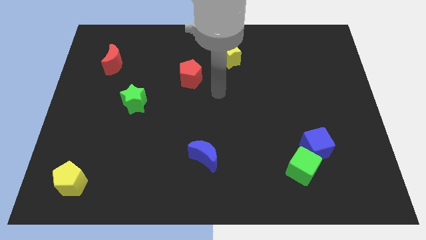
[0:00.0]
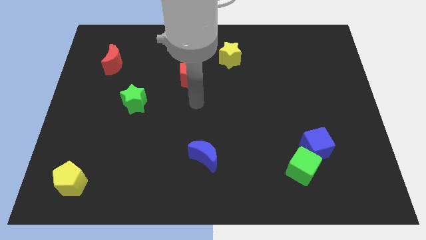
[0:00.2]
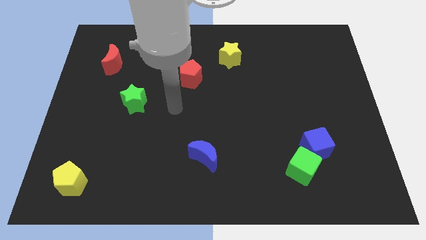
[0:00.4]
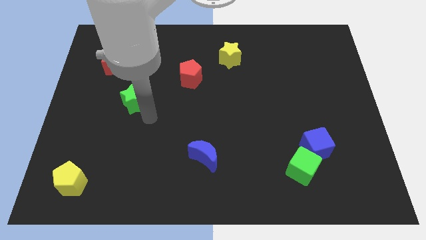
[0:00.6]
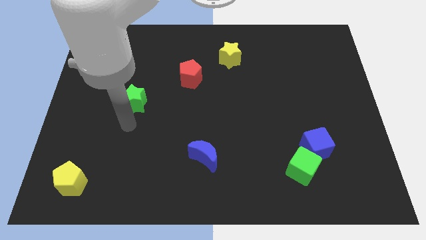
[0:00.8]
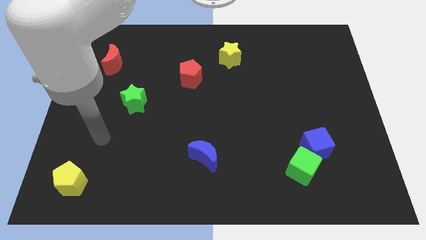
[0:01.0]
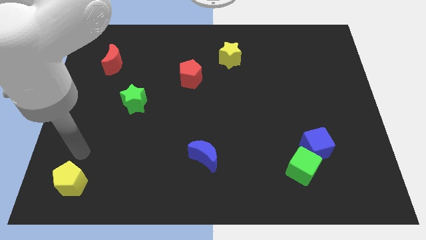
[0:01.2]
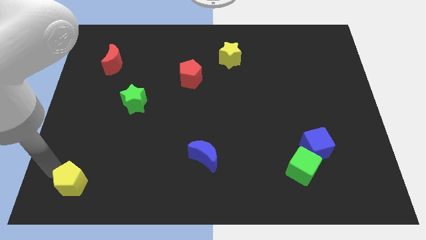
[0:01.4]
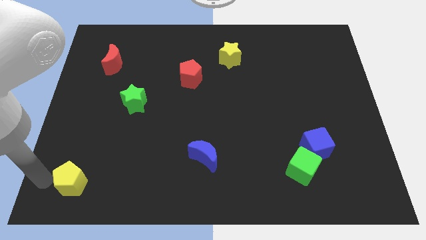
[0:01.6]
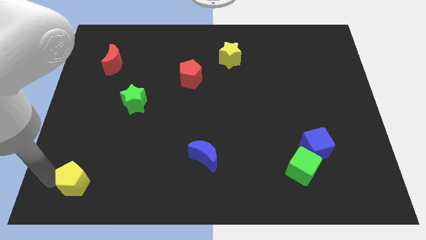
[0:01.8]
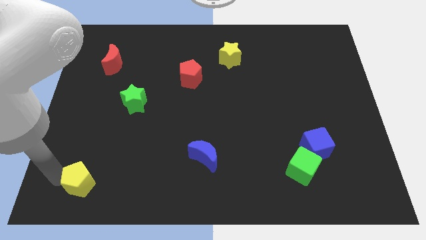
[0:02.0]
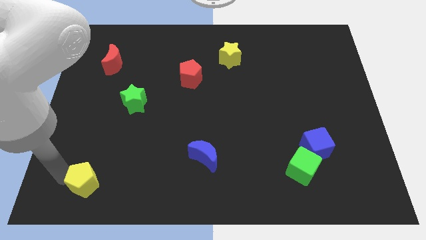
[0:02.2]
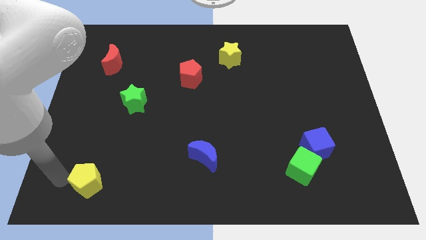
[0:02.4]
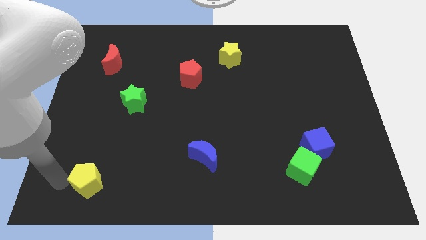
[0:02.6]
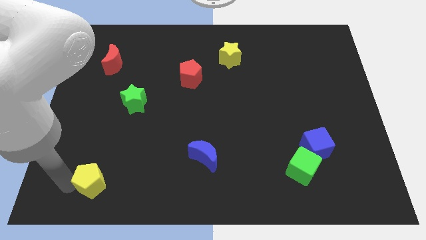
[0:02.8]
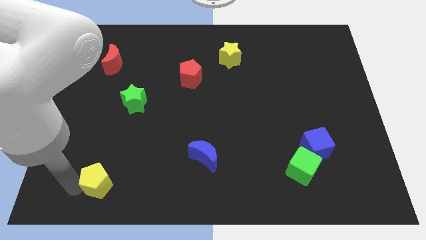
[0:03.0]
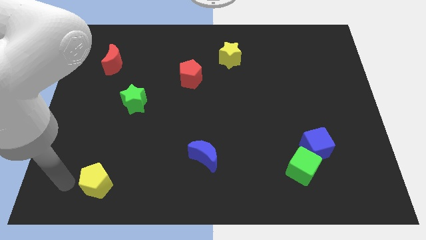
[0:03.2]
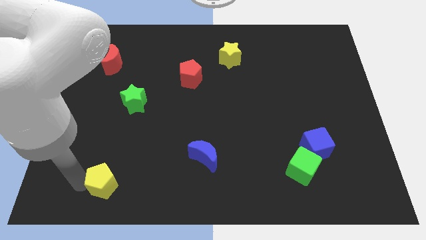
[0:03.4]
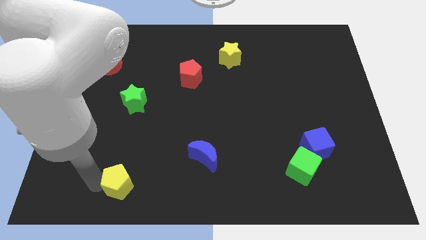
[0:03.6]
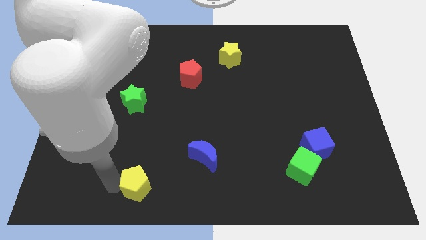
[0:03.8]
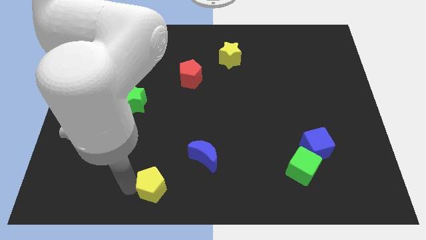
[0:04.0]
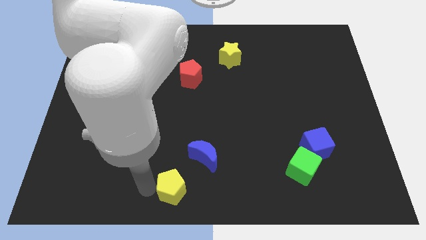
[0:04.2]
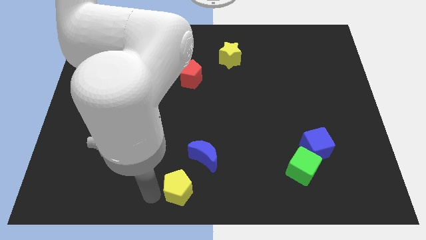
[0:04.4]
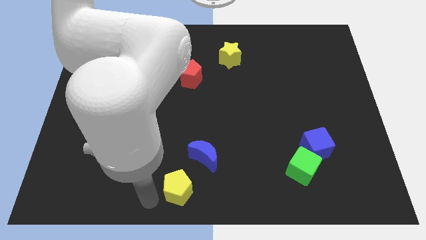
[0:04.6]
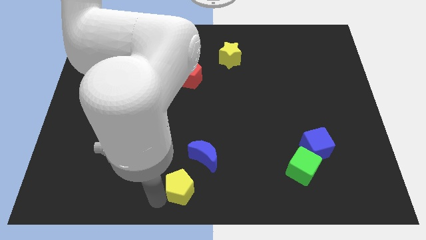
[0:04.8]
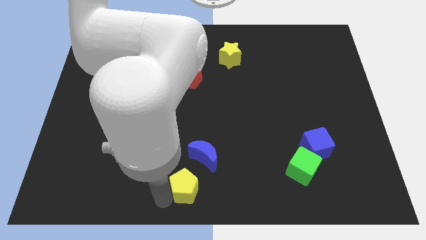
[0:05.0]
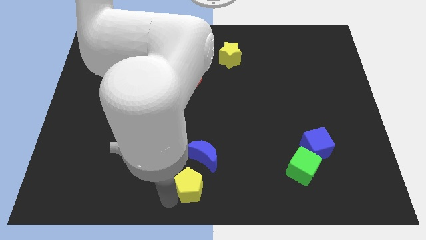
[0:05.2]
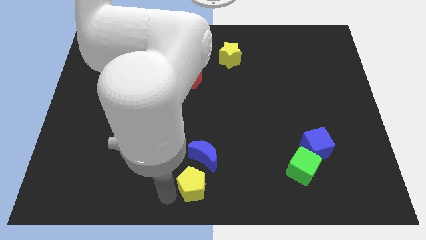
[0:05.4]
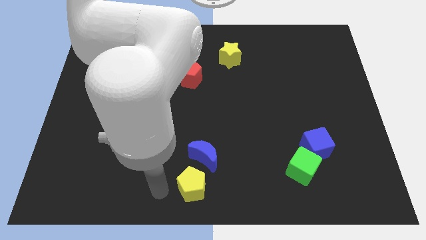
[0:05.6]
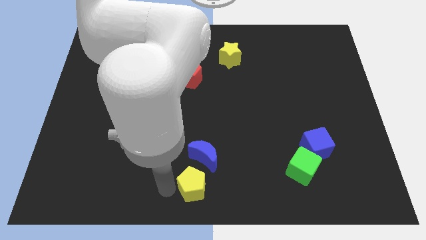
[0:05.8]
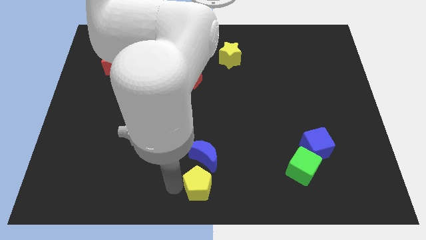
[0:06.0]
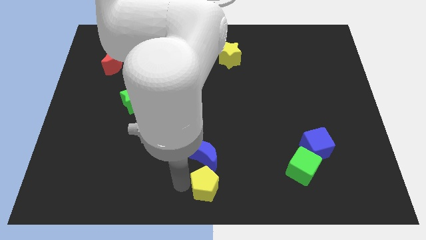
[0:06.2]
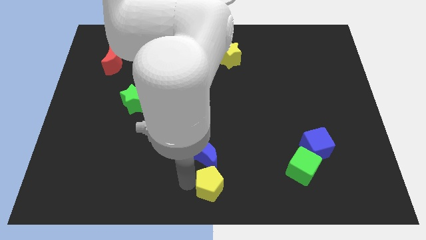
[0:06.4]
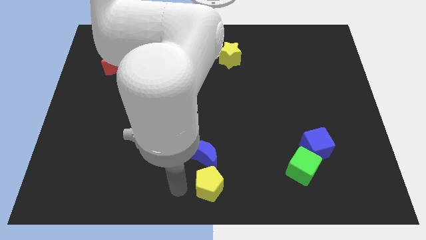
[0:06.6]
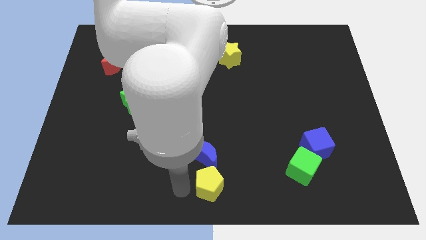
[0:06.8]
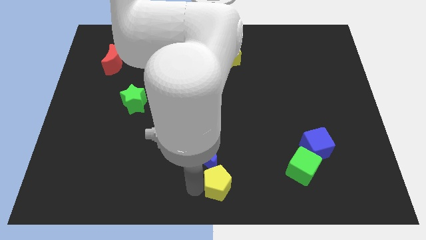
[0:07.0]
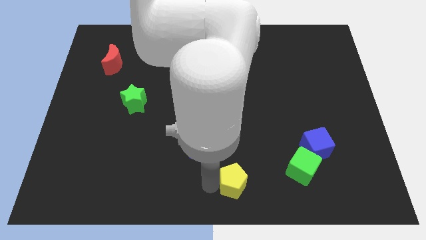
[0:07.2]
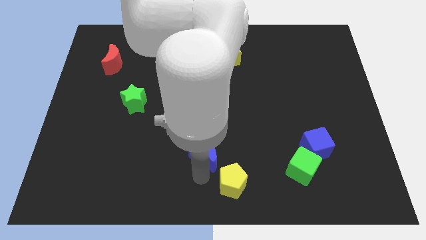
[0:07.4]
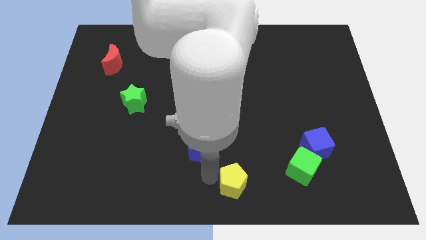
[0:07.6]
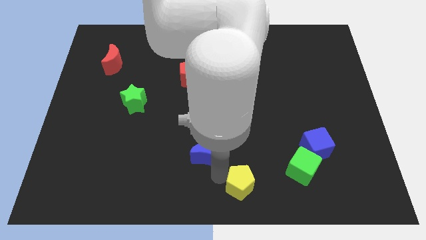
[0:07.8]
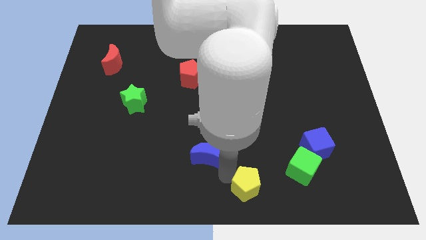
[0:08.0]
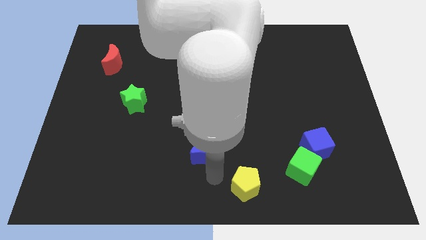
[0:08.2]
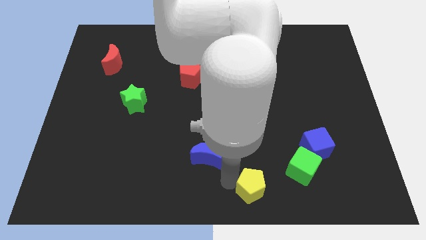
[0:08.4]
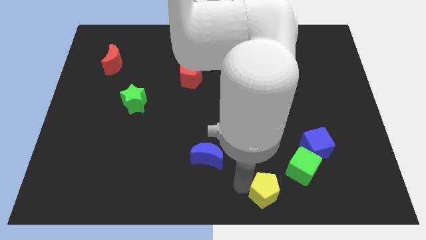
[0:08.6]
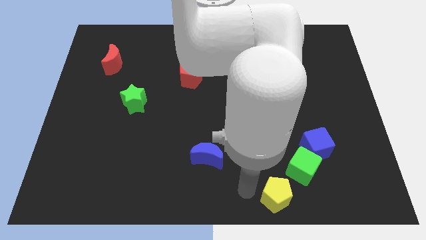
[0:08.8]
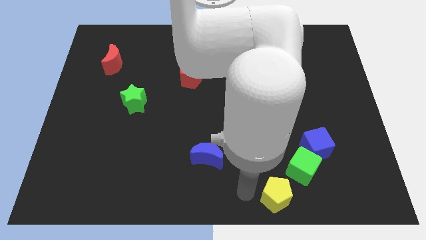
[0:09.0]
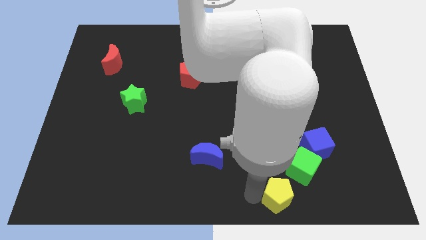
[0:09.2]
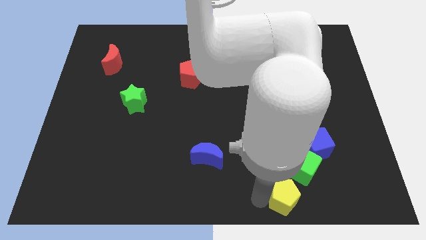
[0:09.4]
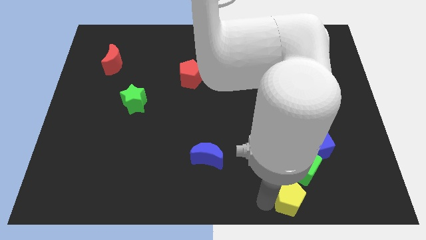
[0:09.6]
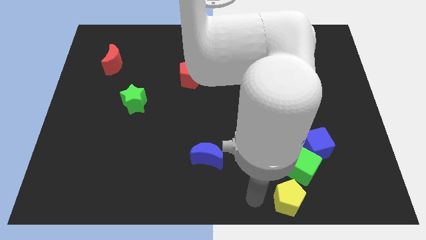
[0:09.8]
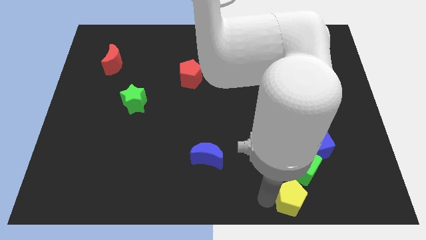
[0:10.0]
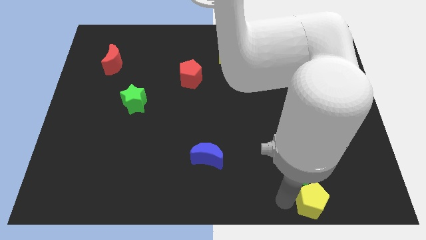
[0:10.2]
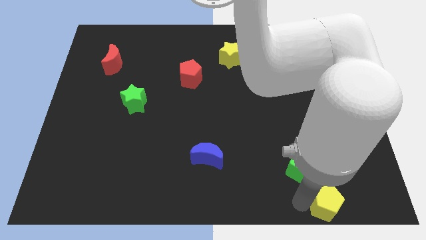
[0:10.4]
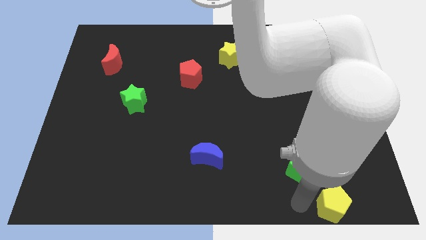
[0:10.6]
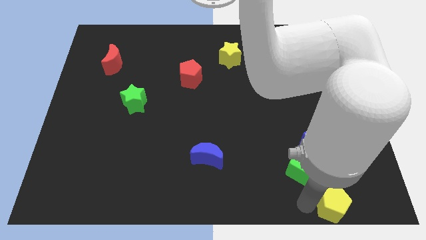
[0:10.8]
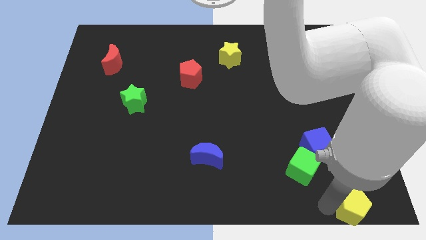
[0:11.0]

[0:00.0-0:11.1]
push the yellow pentagon to the bottom right corner

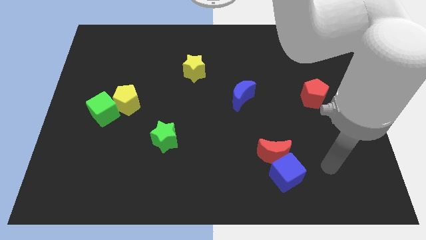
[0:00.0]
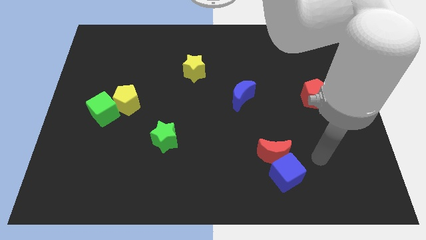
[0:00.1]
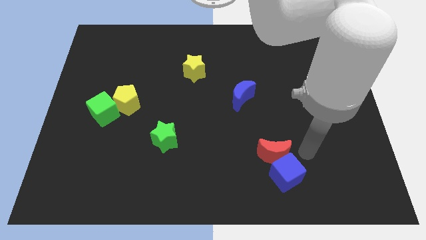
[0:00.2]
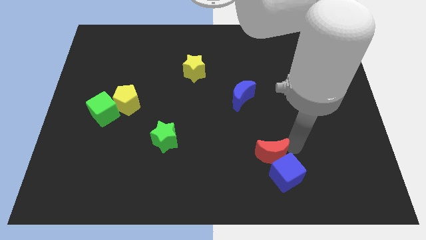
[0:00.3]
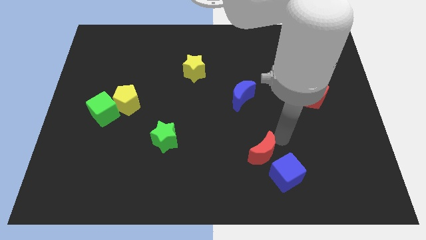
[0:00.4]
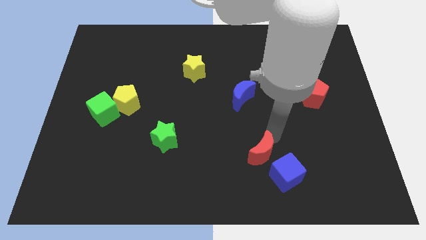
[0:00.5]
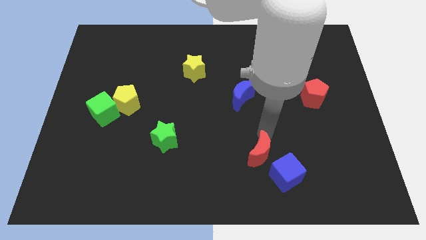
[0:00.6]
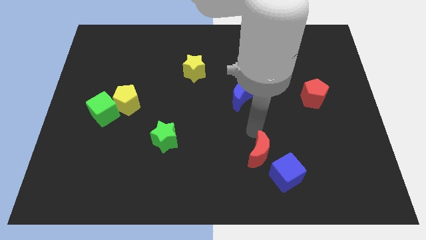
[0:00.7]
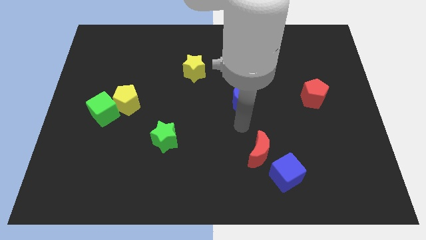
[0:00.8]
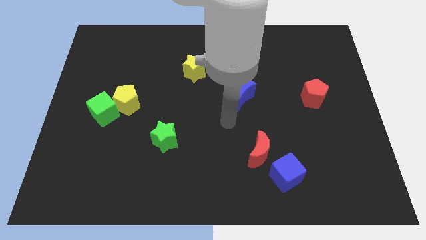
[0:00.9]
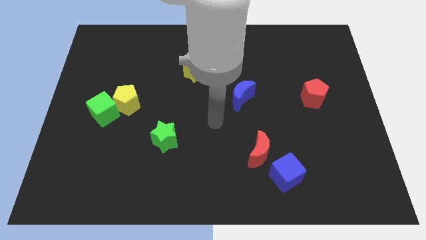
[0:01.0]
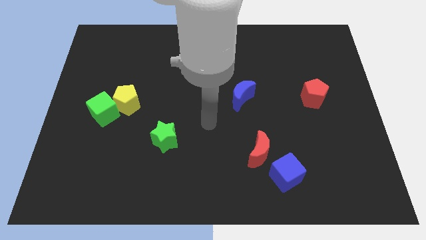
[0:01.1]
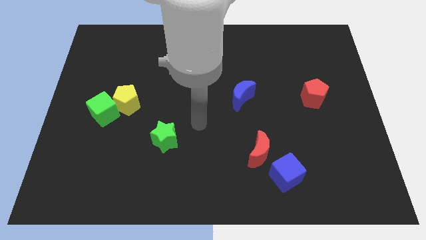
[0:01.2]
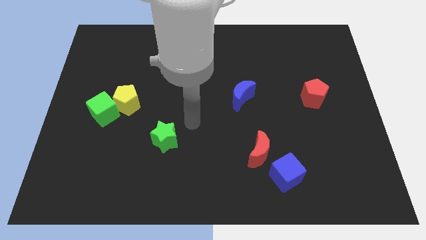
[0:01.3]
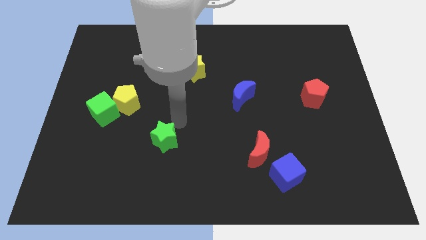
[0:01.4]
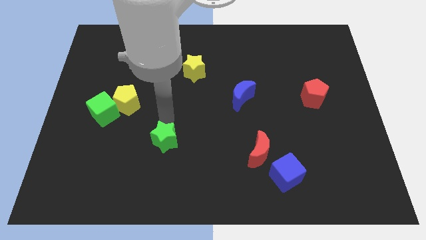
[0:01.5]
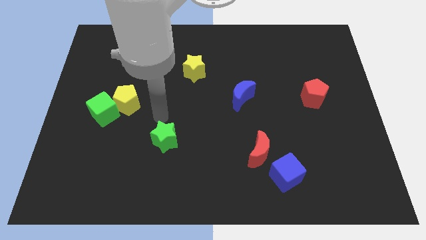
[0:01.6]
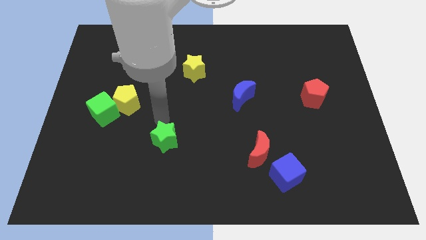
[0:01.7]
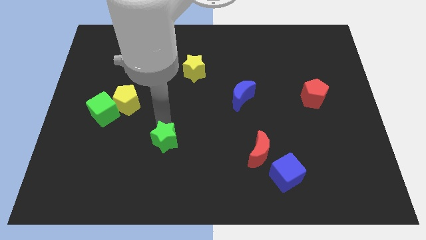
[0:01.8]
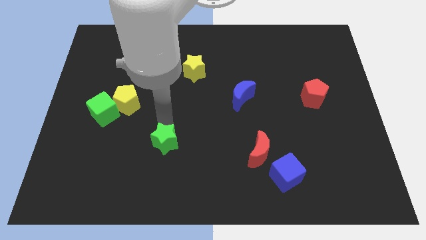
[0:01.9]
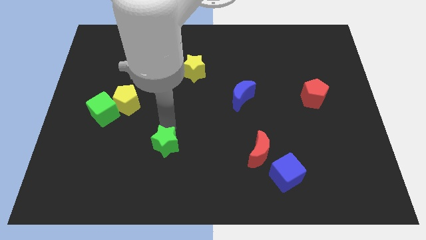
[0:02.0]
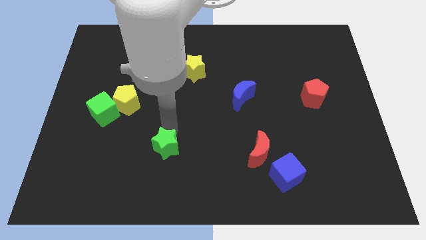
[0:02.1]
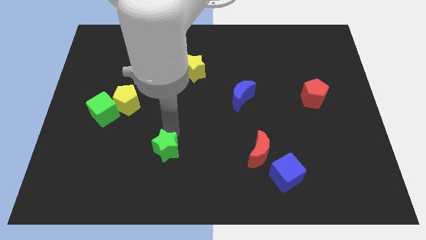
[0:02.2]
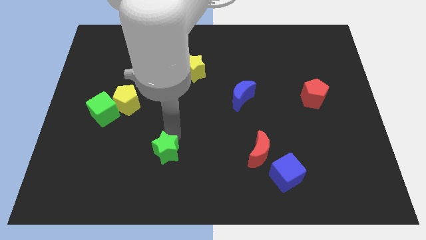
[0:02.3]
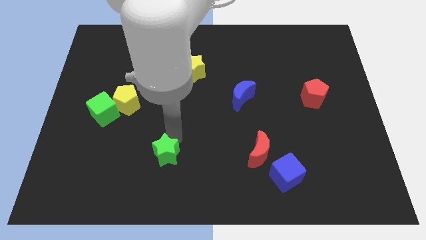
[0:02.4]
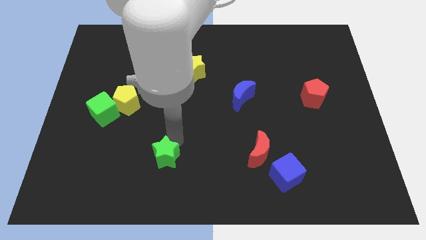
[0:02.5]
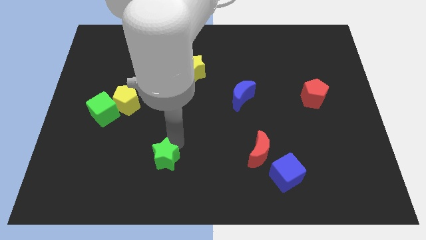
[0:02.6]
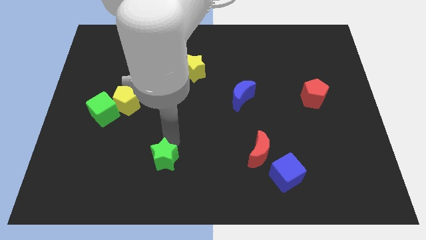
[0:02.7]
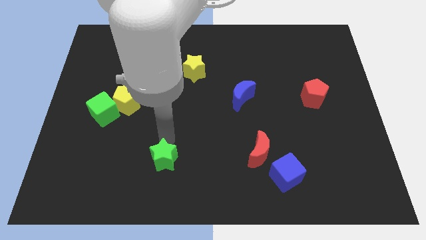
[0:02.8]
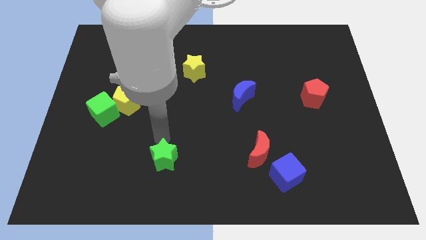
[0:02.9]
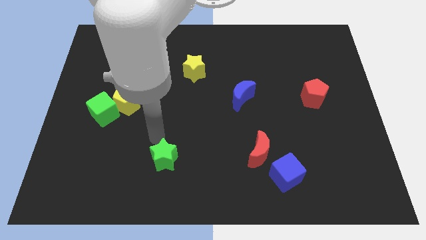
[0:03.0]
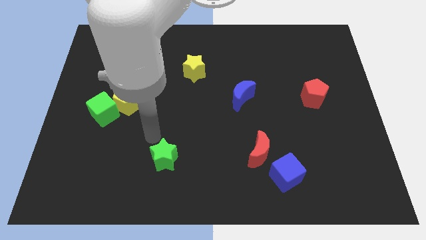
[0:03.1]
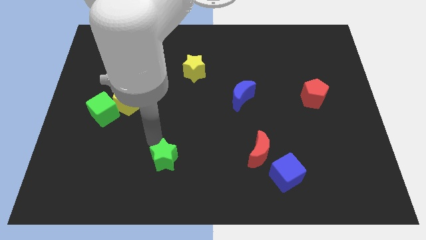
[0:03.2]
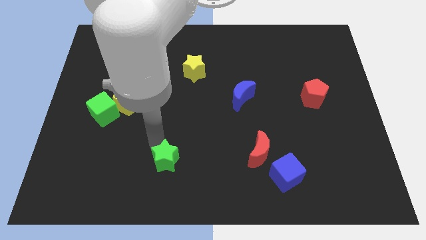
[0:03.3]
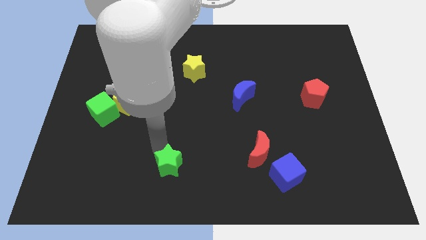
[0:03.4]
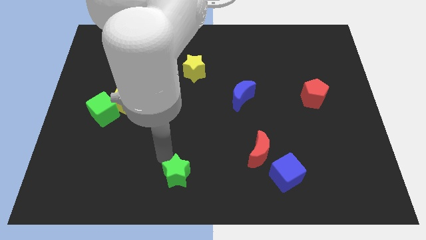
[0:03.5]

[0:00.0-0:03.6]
put the green star to the bottom side
